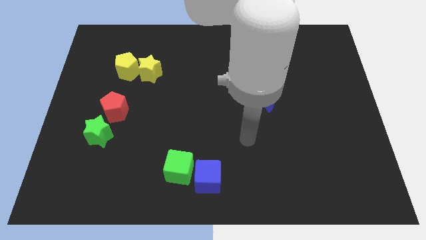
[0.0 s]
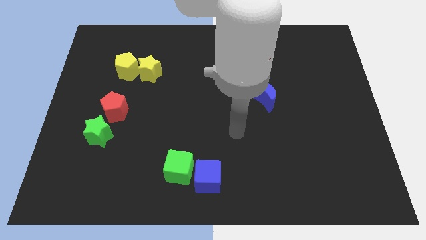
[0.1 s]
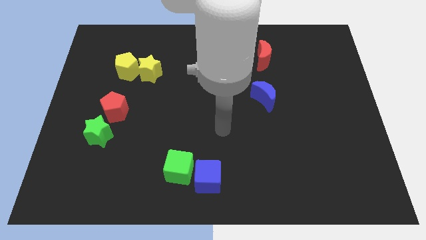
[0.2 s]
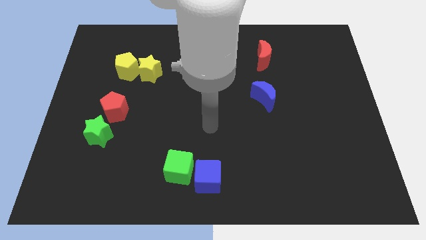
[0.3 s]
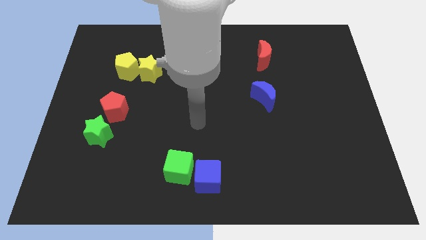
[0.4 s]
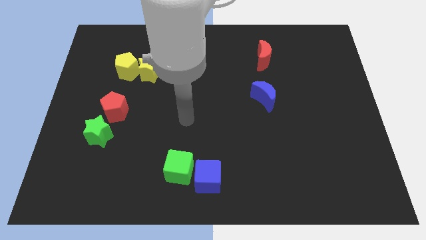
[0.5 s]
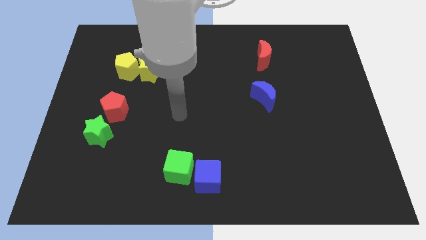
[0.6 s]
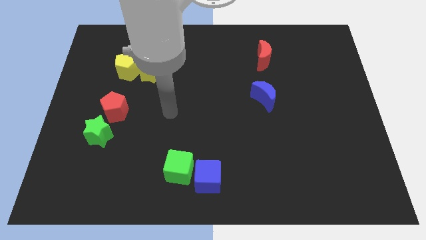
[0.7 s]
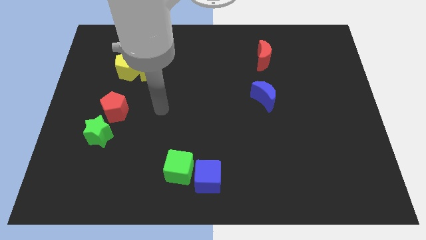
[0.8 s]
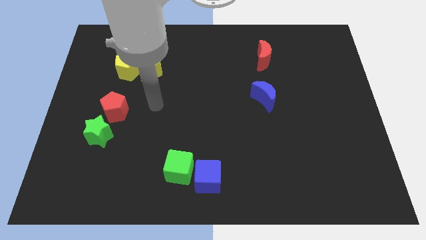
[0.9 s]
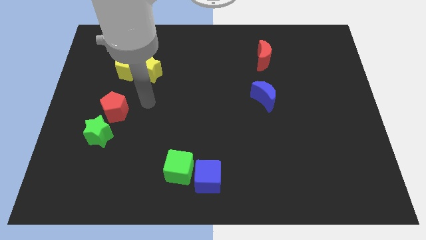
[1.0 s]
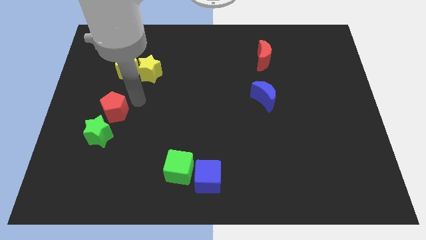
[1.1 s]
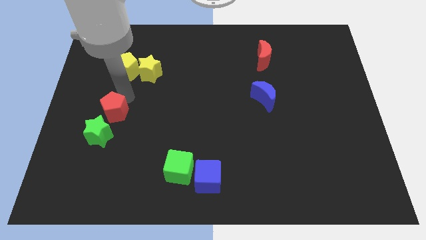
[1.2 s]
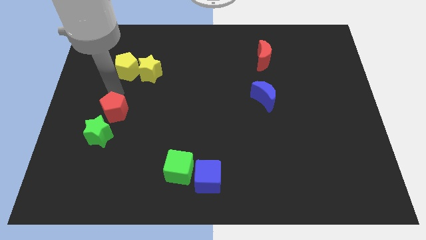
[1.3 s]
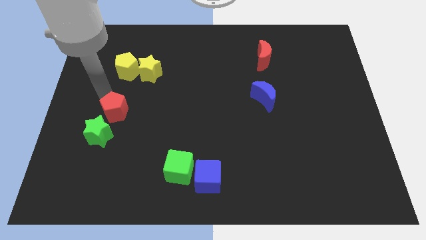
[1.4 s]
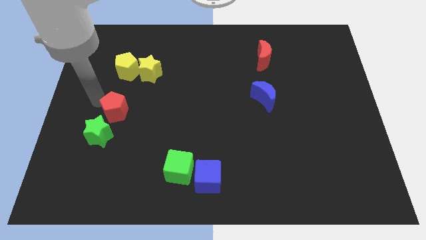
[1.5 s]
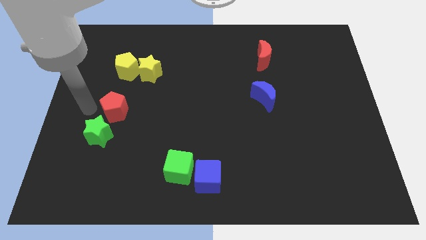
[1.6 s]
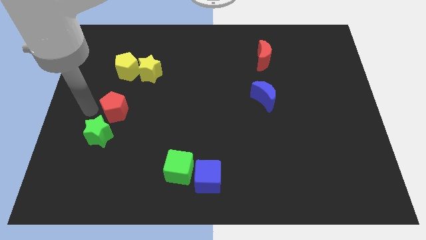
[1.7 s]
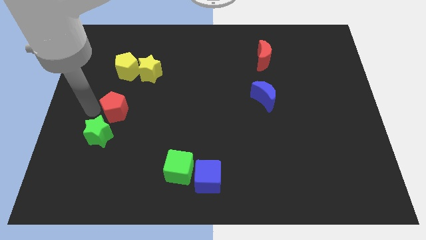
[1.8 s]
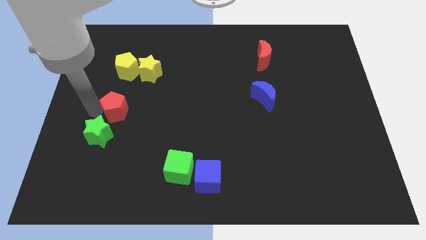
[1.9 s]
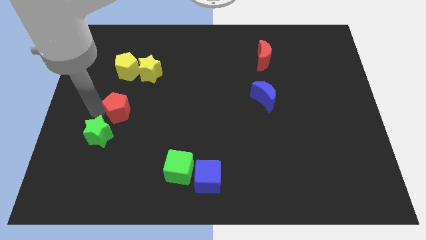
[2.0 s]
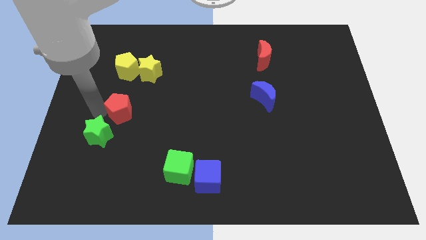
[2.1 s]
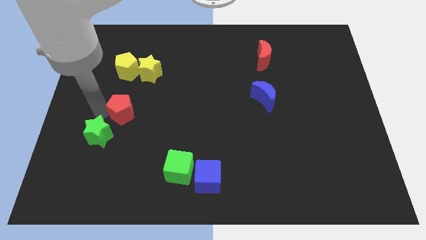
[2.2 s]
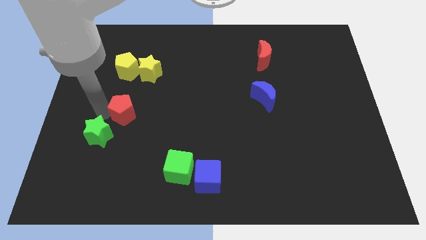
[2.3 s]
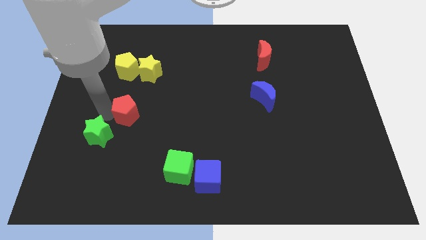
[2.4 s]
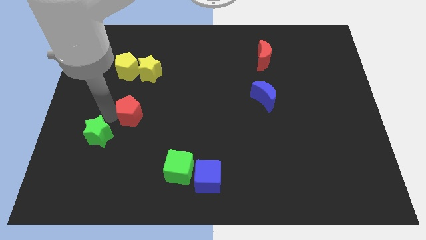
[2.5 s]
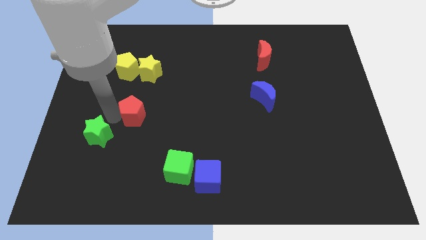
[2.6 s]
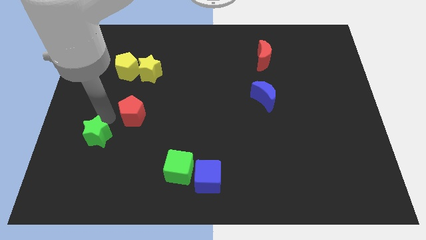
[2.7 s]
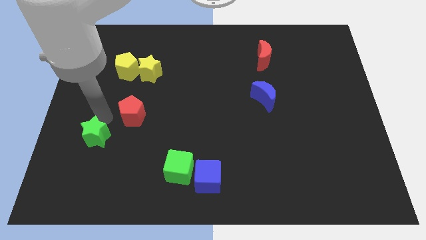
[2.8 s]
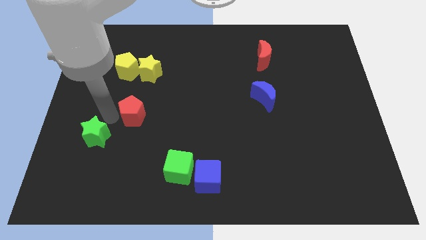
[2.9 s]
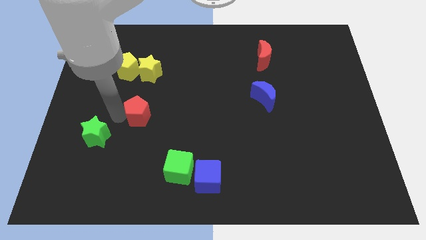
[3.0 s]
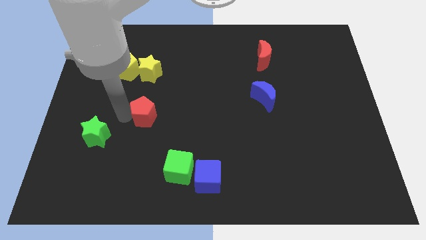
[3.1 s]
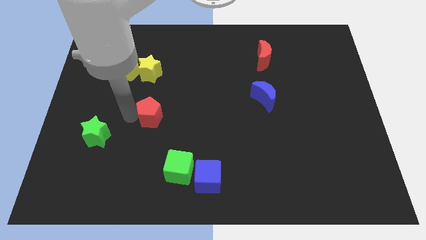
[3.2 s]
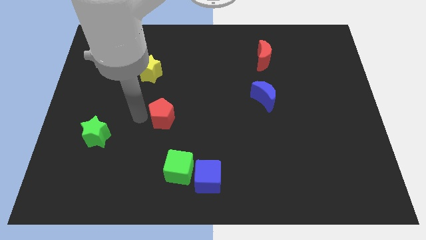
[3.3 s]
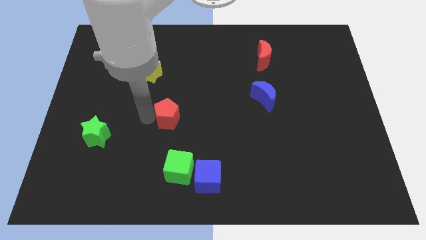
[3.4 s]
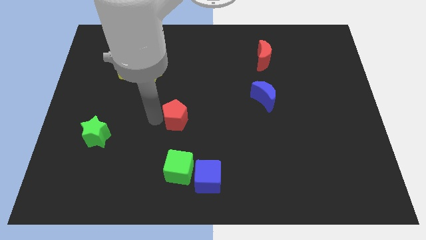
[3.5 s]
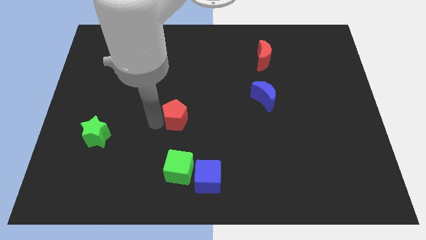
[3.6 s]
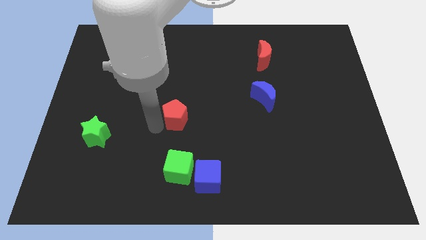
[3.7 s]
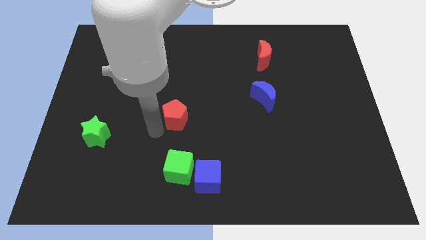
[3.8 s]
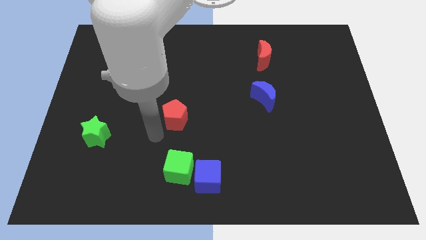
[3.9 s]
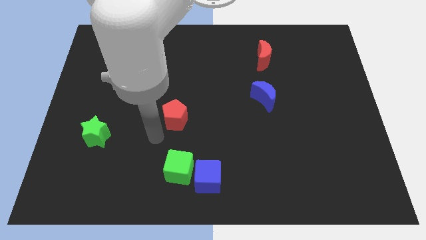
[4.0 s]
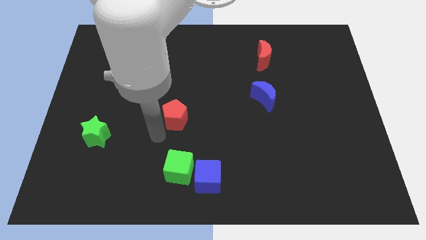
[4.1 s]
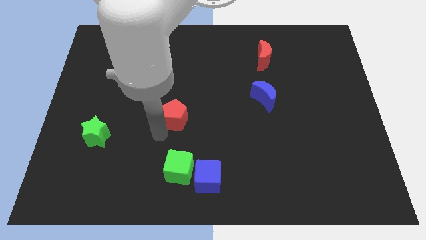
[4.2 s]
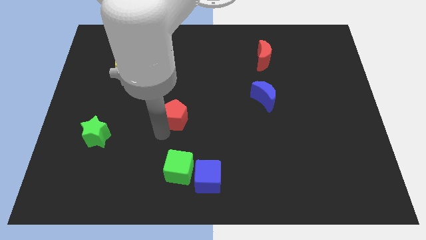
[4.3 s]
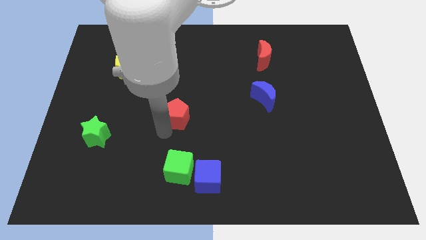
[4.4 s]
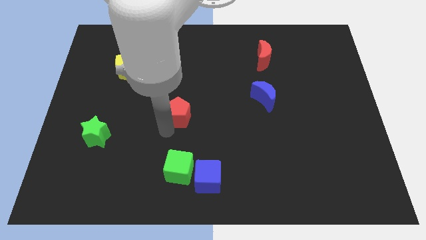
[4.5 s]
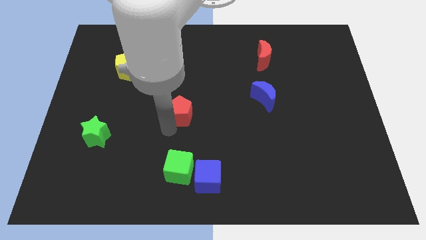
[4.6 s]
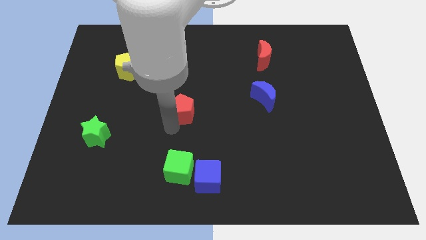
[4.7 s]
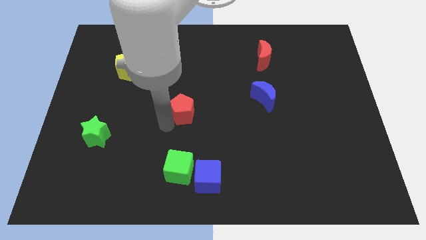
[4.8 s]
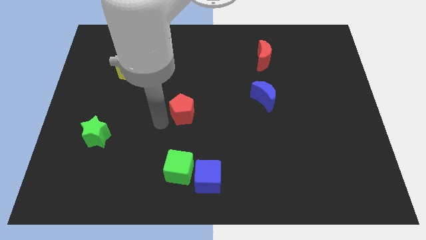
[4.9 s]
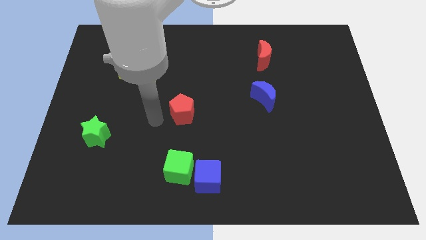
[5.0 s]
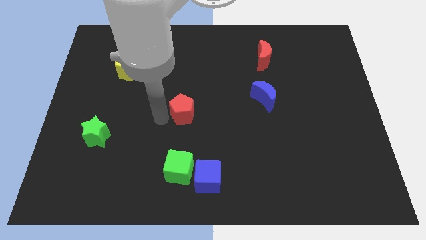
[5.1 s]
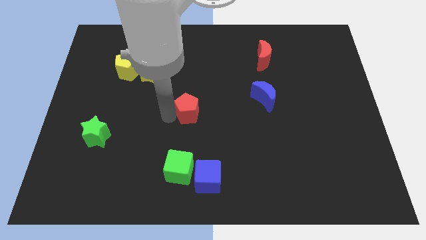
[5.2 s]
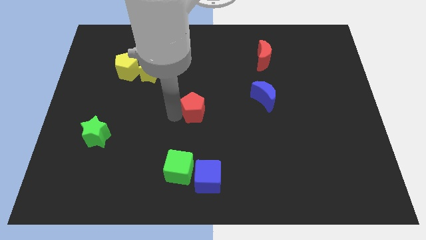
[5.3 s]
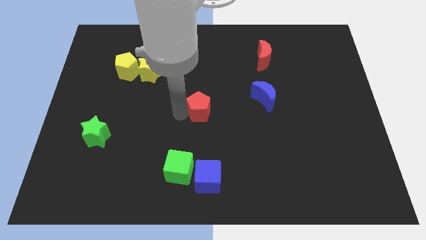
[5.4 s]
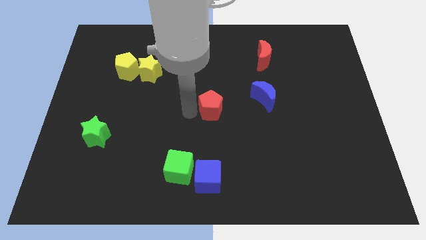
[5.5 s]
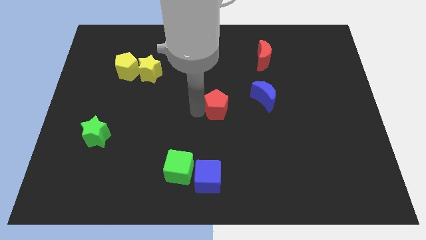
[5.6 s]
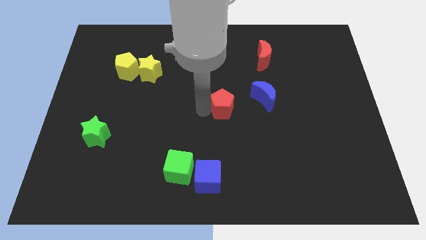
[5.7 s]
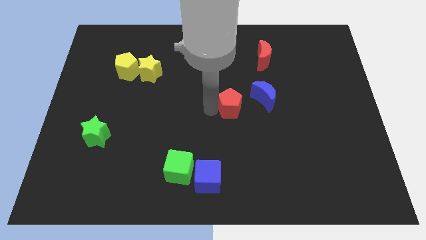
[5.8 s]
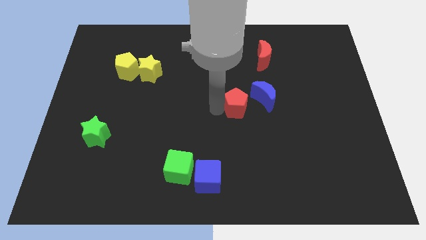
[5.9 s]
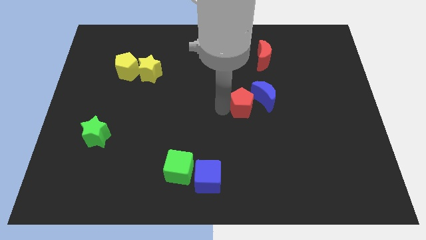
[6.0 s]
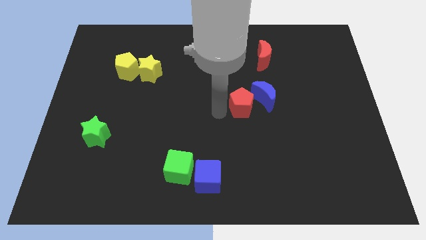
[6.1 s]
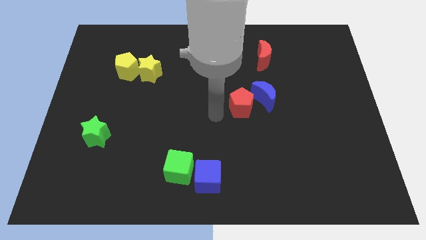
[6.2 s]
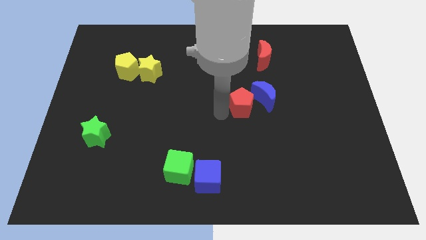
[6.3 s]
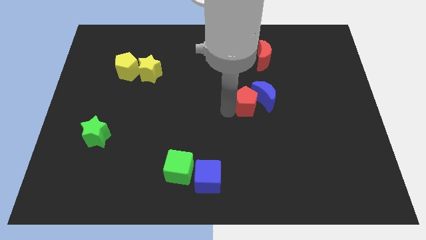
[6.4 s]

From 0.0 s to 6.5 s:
slide the red pentagon to the blue moon

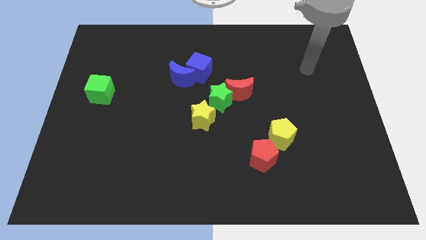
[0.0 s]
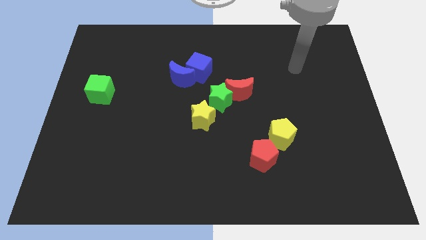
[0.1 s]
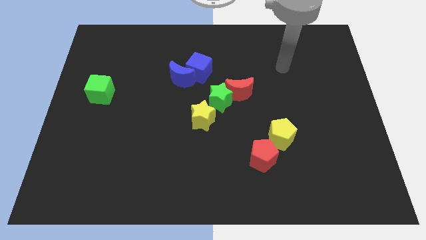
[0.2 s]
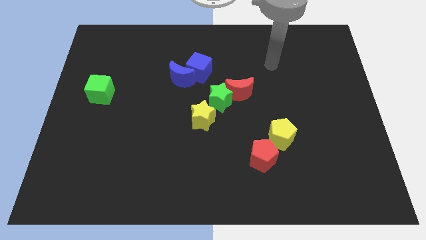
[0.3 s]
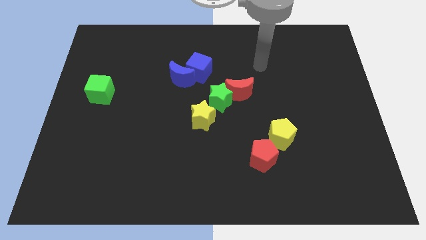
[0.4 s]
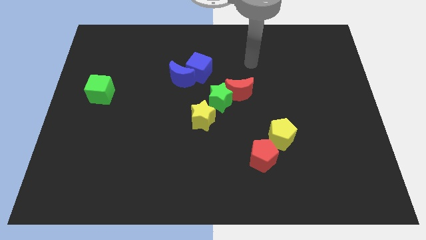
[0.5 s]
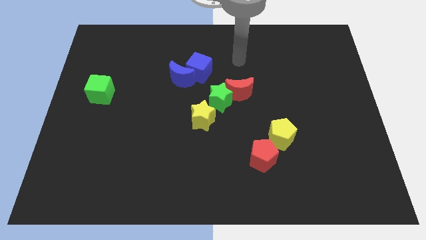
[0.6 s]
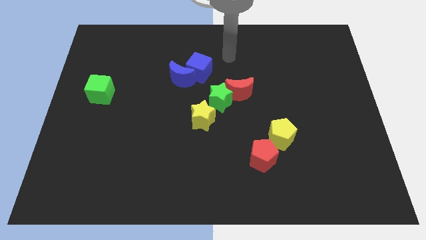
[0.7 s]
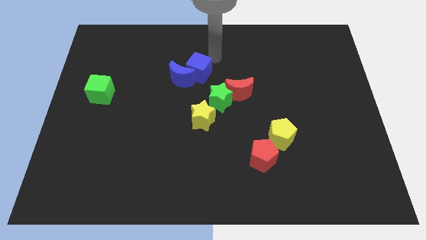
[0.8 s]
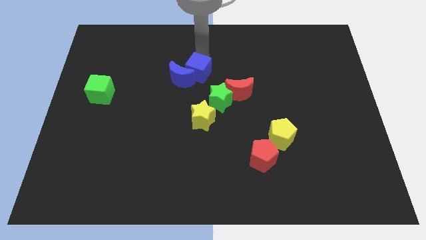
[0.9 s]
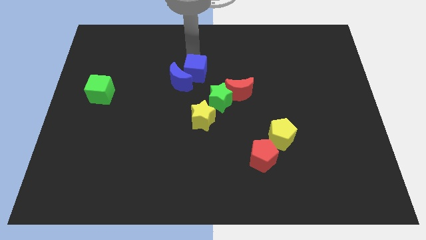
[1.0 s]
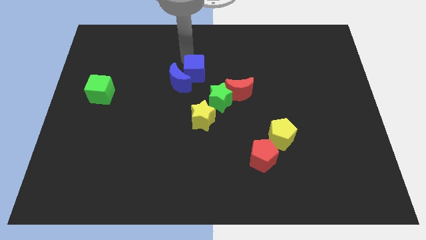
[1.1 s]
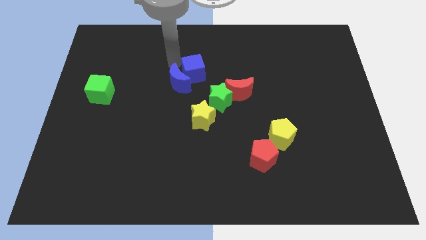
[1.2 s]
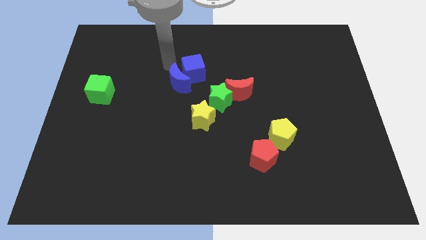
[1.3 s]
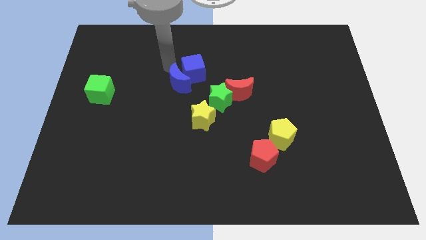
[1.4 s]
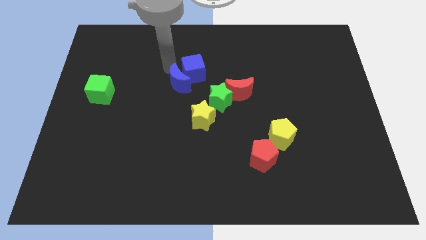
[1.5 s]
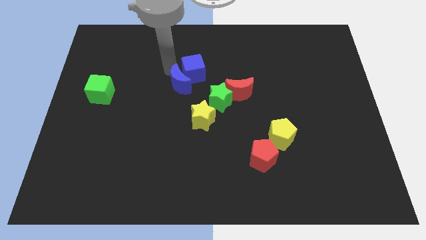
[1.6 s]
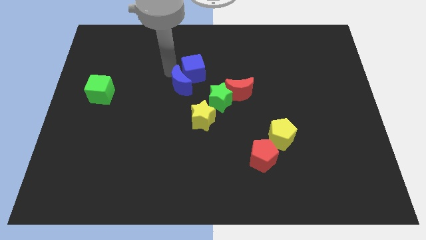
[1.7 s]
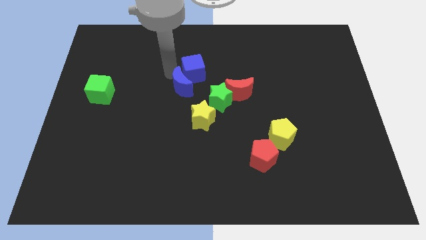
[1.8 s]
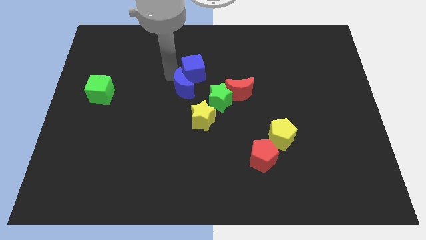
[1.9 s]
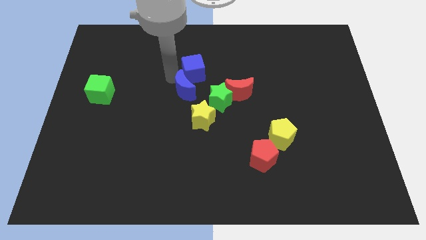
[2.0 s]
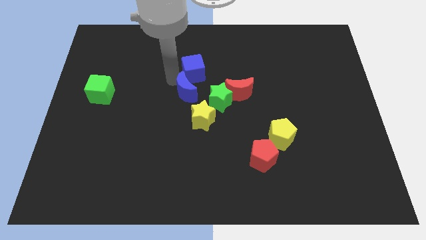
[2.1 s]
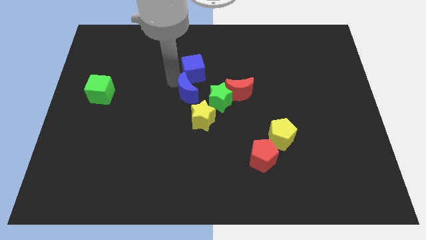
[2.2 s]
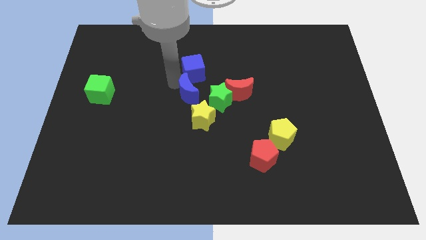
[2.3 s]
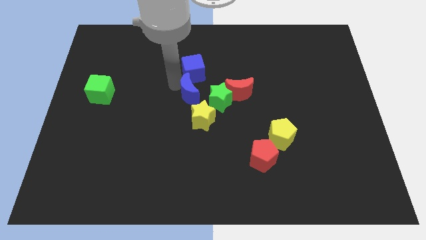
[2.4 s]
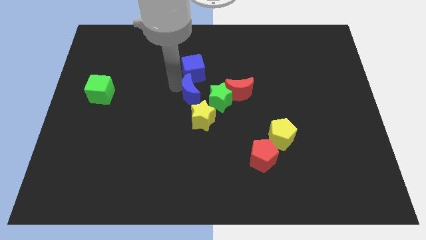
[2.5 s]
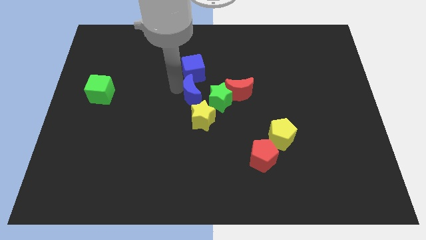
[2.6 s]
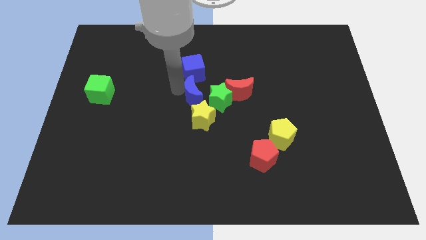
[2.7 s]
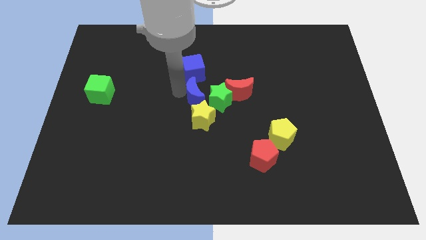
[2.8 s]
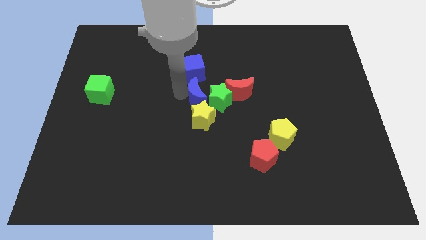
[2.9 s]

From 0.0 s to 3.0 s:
put the blue moon next to the yellow star
